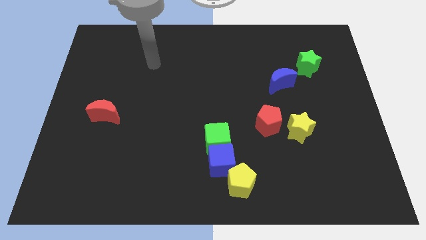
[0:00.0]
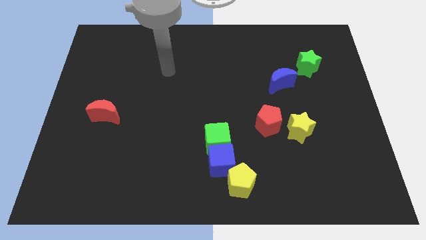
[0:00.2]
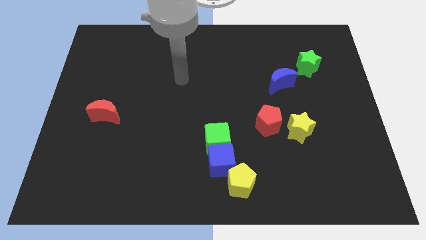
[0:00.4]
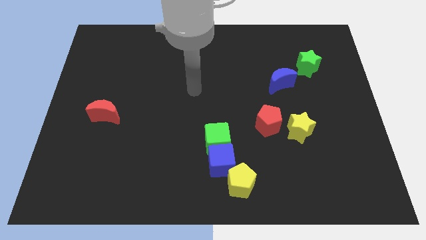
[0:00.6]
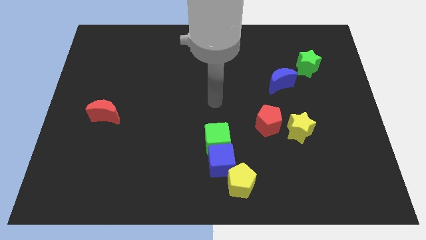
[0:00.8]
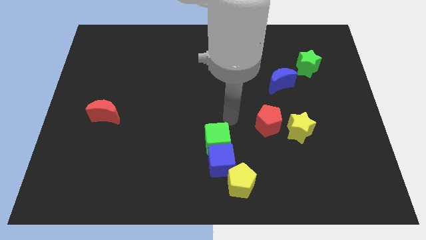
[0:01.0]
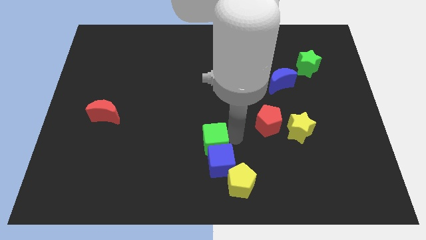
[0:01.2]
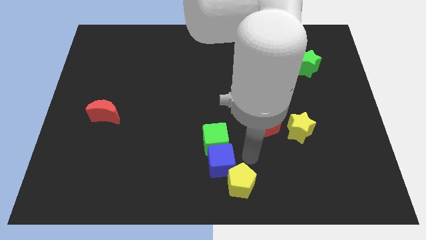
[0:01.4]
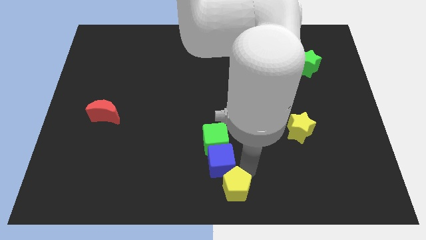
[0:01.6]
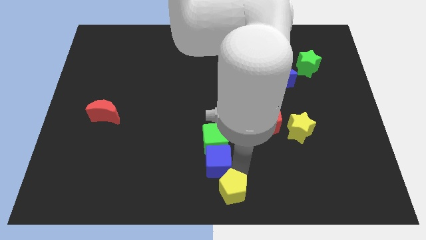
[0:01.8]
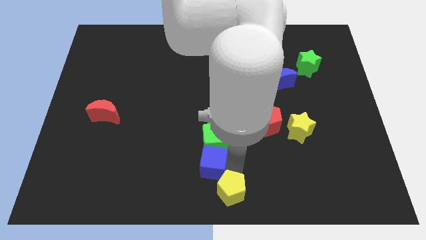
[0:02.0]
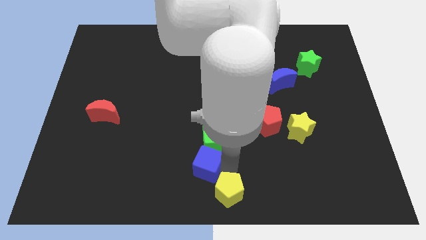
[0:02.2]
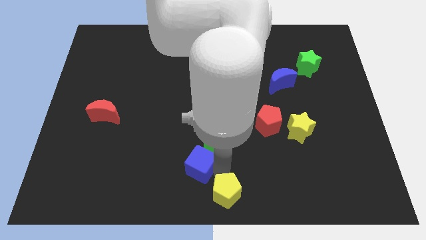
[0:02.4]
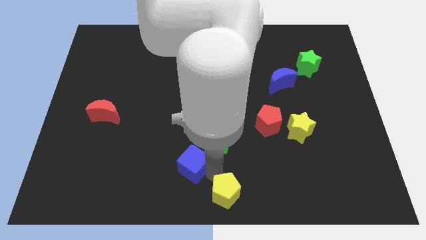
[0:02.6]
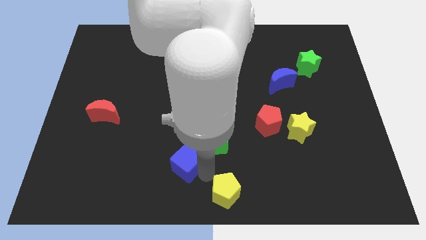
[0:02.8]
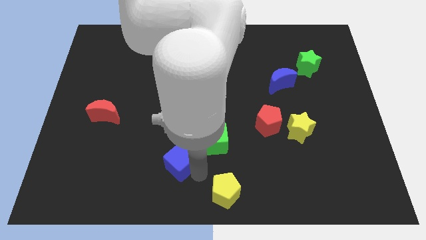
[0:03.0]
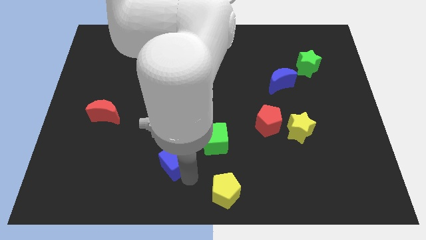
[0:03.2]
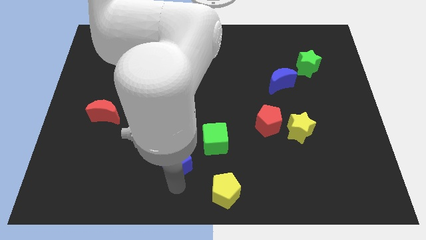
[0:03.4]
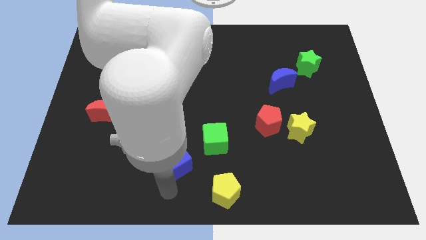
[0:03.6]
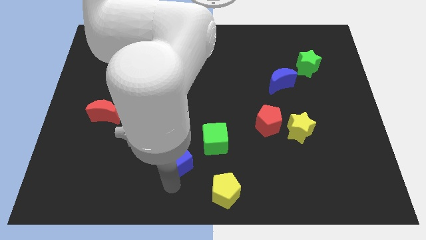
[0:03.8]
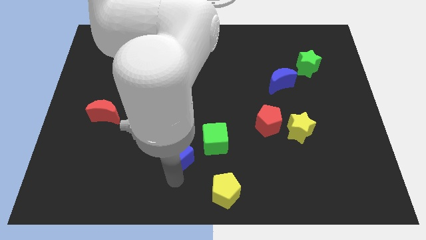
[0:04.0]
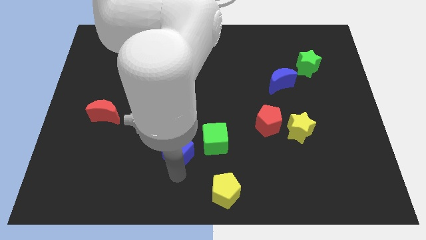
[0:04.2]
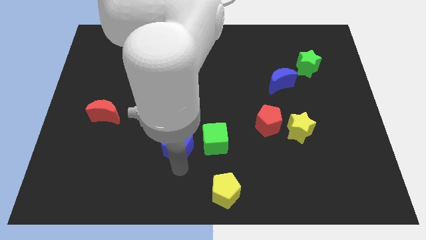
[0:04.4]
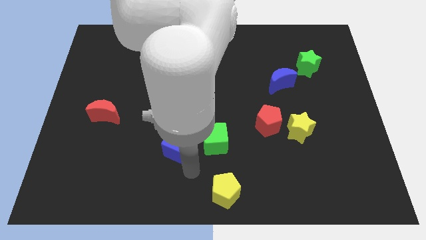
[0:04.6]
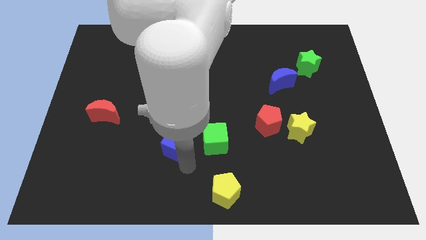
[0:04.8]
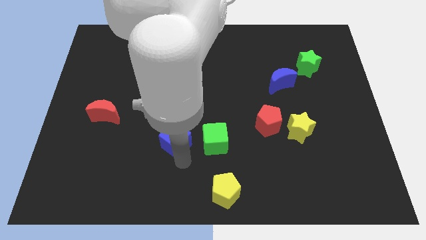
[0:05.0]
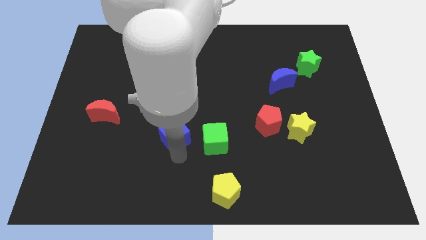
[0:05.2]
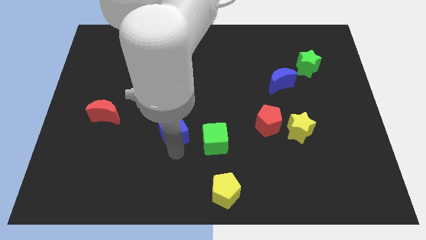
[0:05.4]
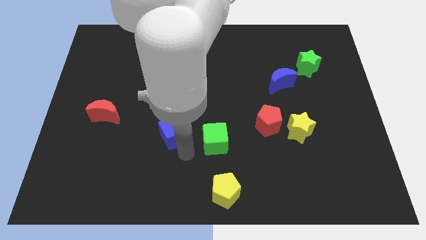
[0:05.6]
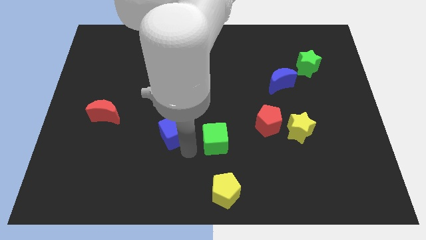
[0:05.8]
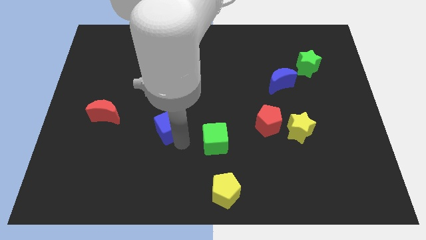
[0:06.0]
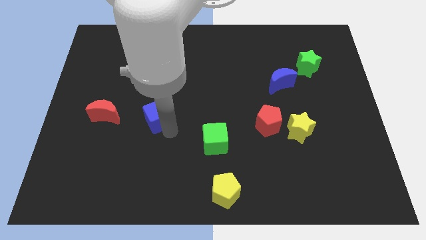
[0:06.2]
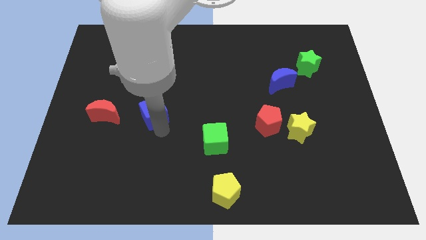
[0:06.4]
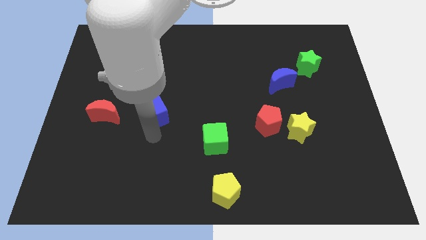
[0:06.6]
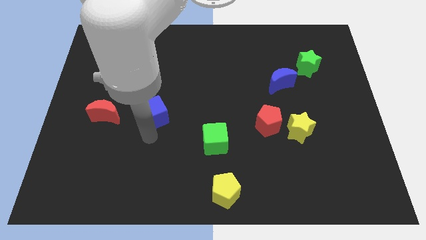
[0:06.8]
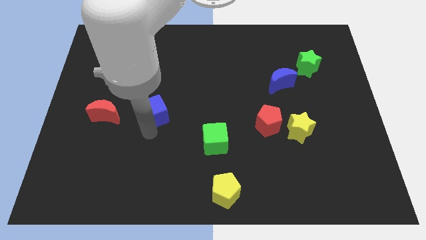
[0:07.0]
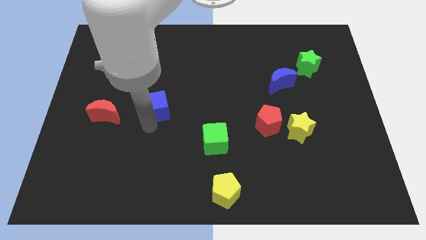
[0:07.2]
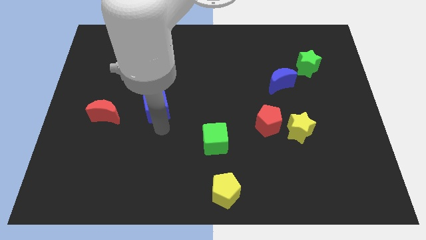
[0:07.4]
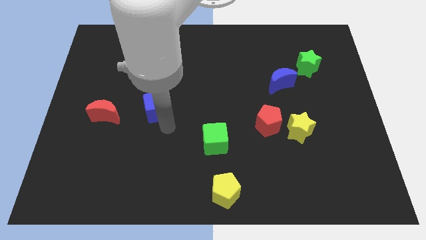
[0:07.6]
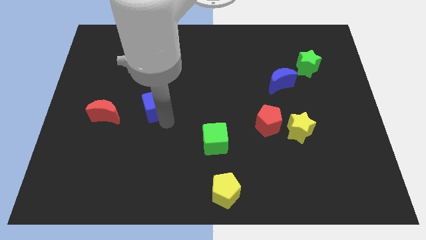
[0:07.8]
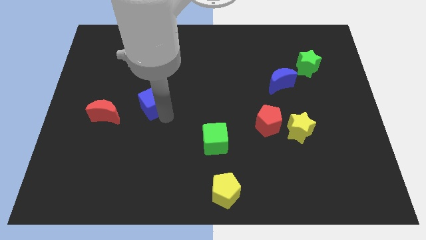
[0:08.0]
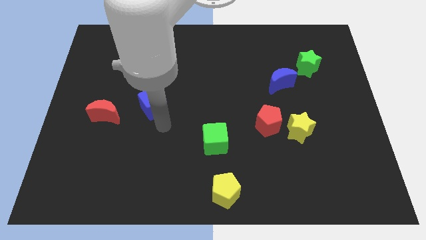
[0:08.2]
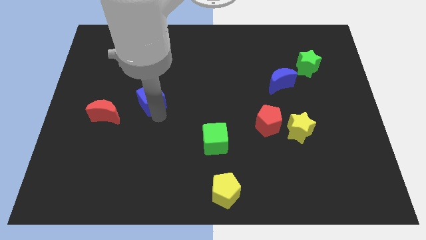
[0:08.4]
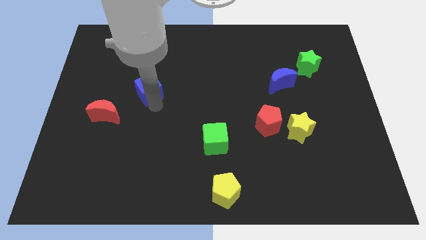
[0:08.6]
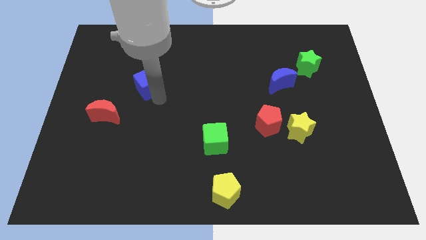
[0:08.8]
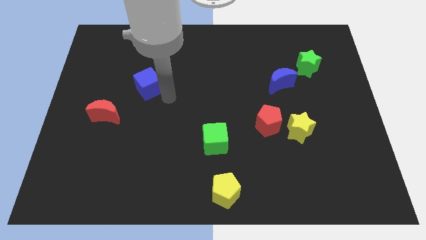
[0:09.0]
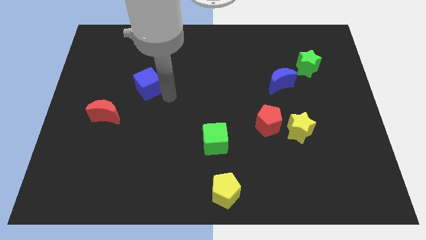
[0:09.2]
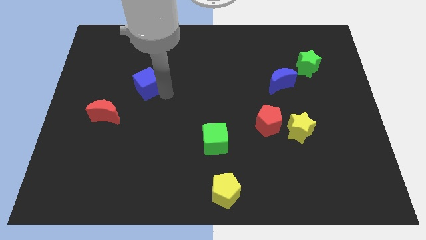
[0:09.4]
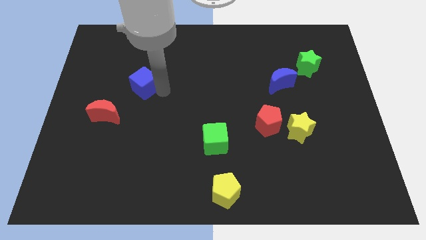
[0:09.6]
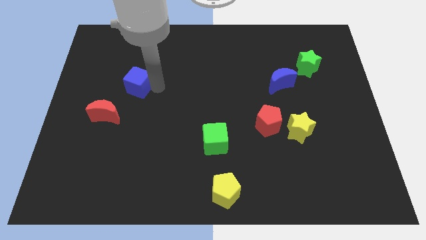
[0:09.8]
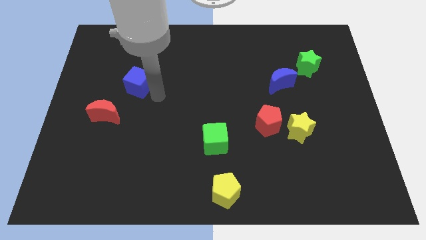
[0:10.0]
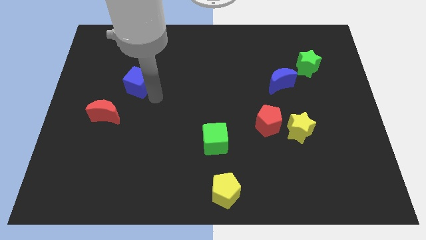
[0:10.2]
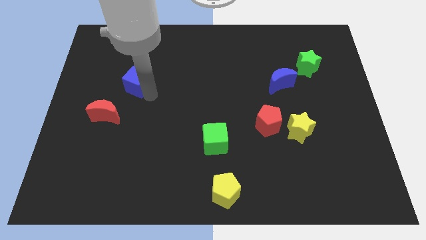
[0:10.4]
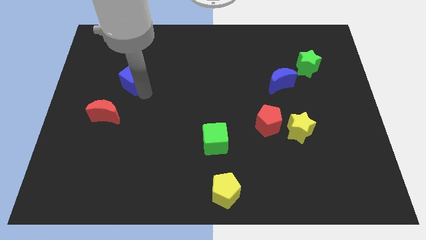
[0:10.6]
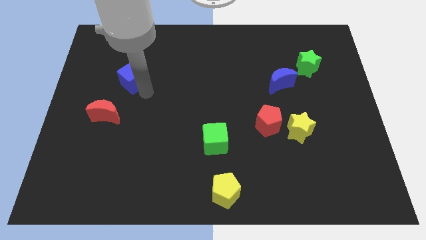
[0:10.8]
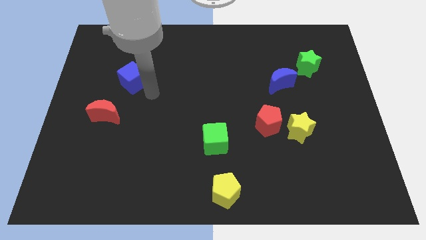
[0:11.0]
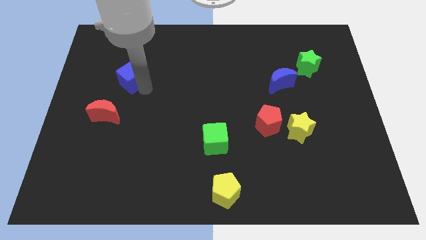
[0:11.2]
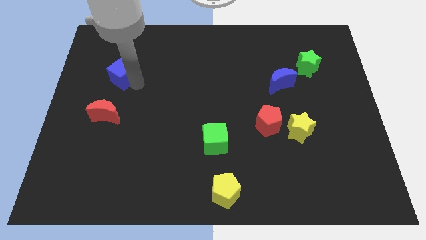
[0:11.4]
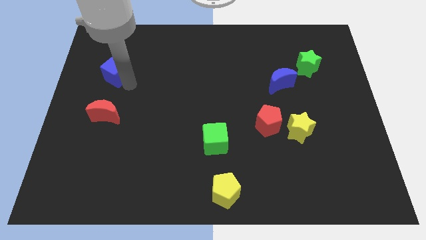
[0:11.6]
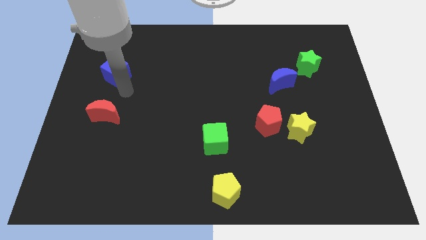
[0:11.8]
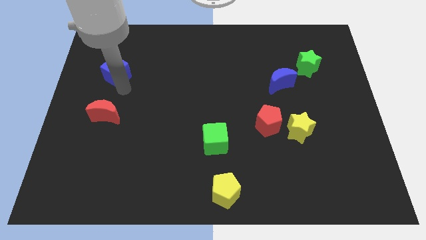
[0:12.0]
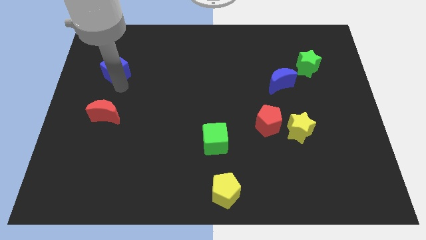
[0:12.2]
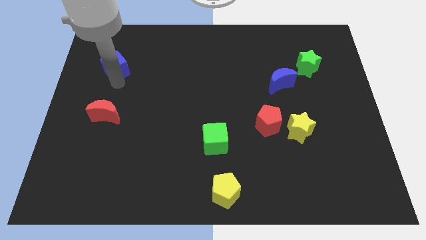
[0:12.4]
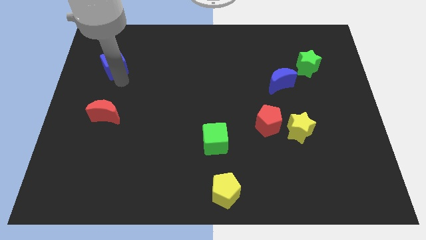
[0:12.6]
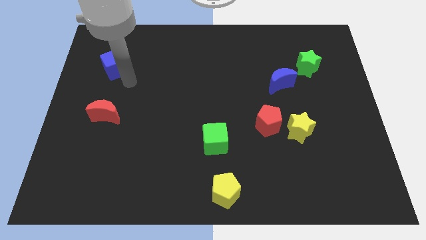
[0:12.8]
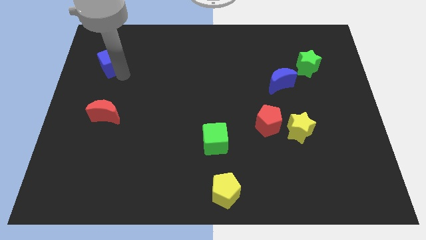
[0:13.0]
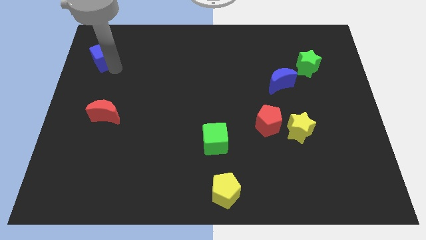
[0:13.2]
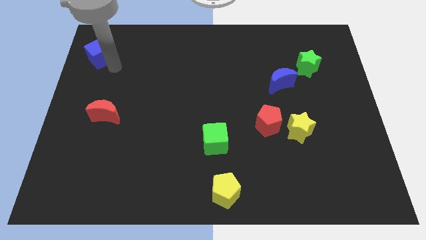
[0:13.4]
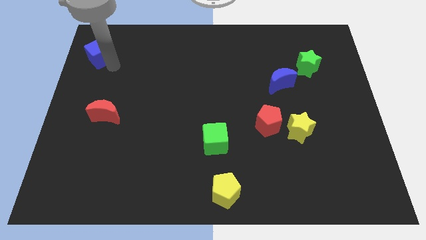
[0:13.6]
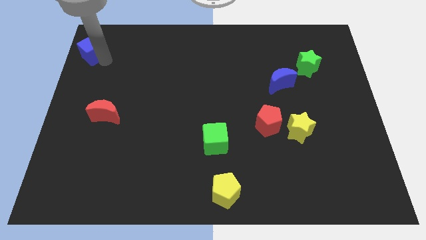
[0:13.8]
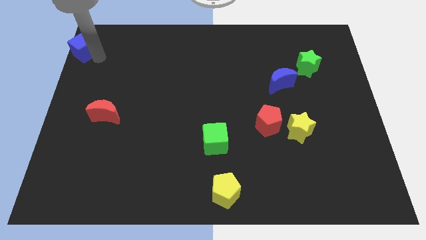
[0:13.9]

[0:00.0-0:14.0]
slide the blue cube to the top left of the board
